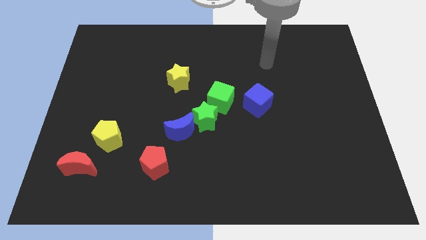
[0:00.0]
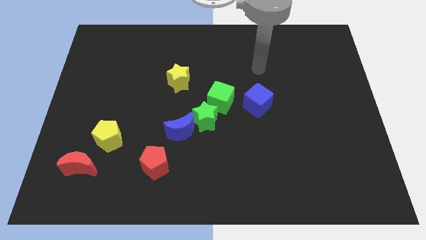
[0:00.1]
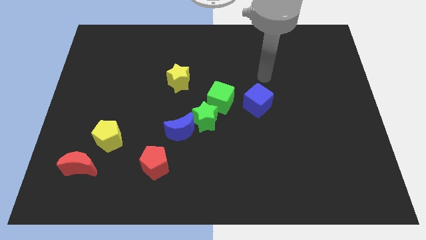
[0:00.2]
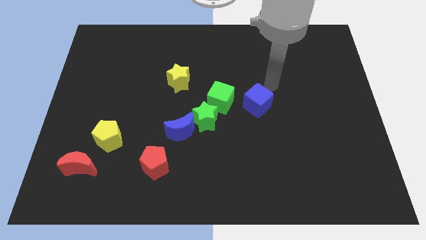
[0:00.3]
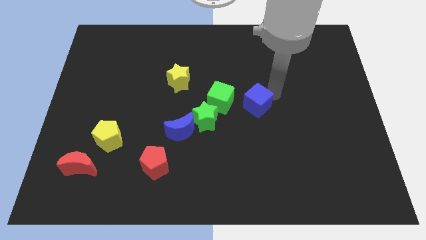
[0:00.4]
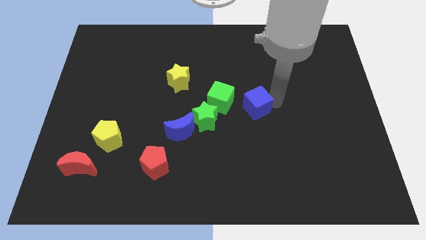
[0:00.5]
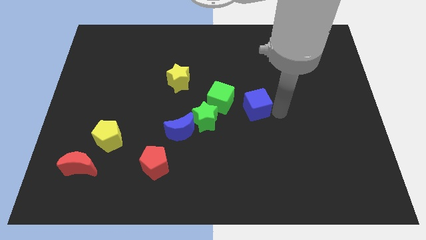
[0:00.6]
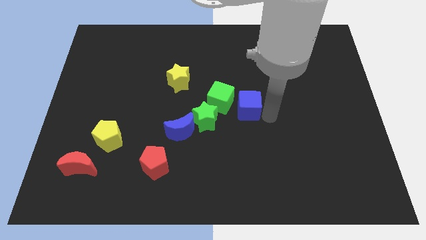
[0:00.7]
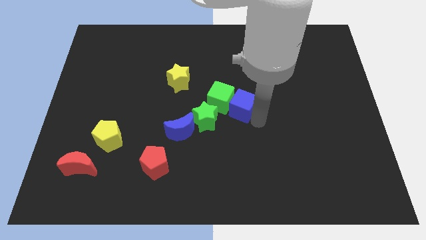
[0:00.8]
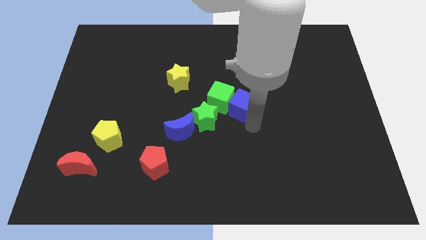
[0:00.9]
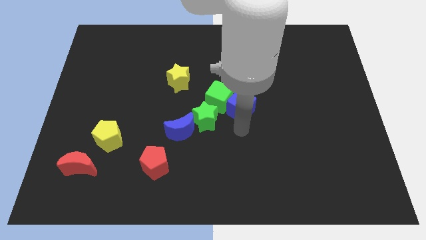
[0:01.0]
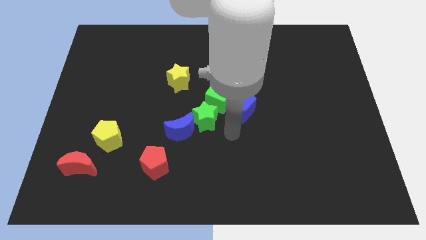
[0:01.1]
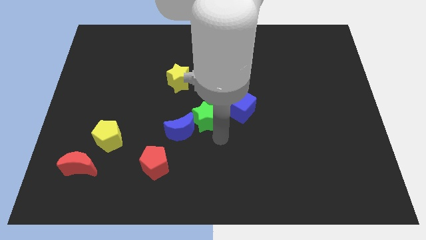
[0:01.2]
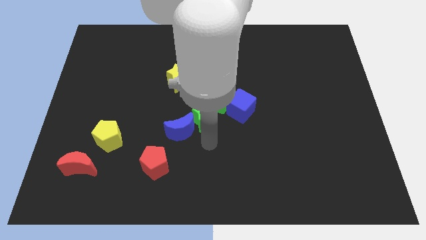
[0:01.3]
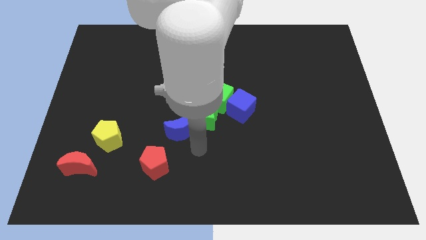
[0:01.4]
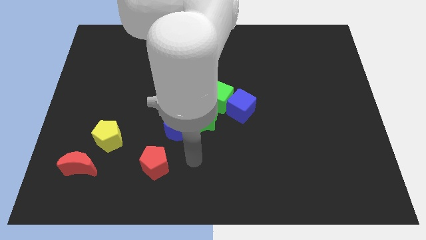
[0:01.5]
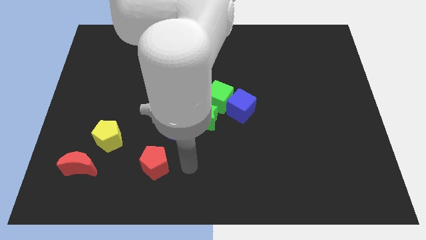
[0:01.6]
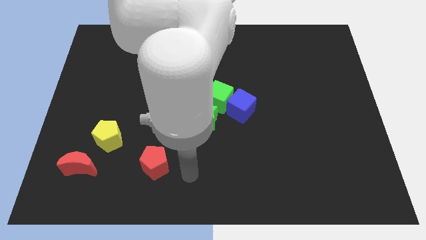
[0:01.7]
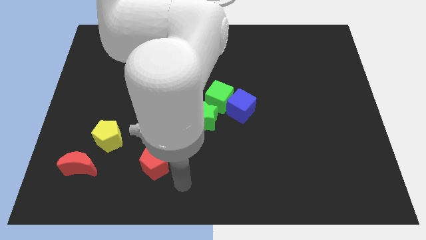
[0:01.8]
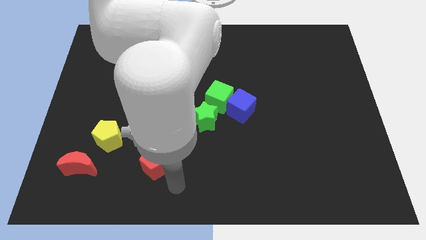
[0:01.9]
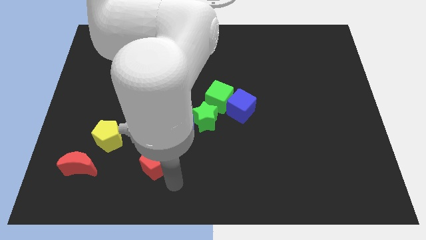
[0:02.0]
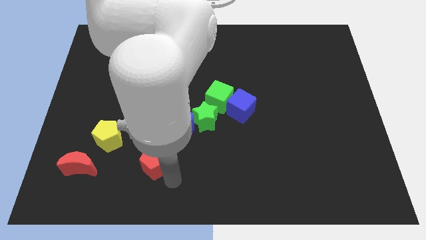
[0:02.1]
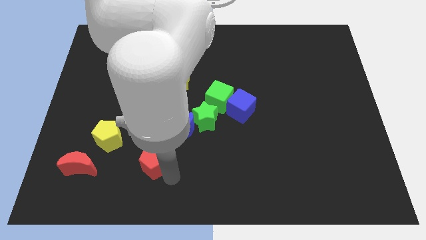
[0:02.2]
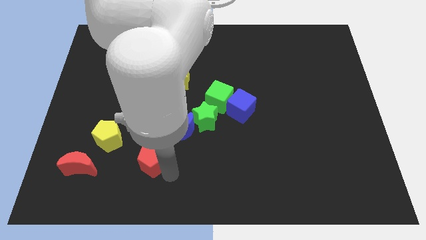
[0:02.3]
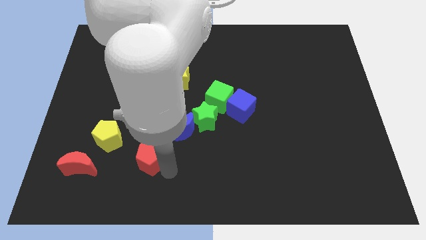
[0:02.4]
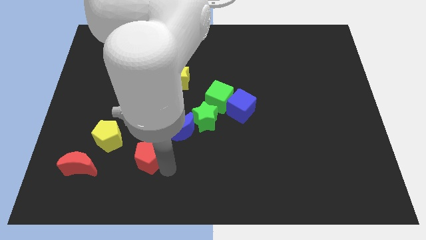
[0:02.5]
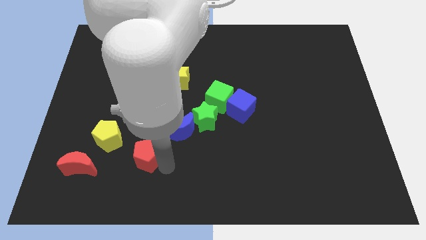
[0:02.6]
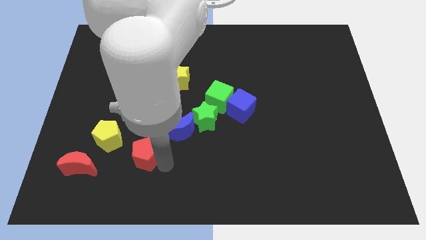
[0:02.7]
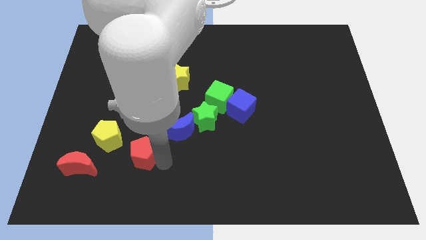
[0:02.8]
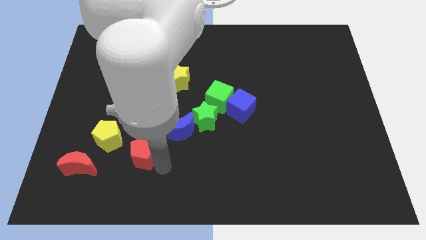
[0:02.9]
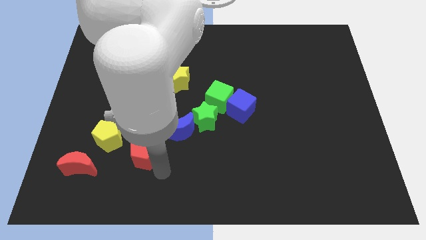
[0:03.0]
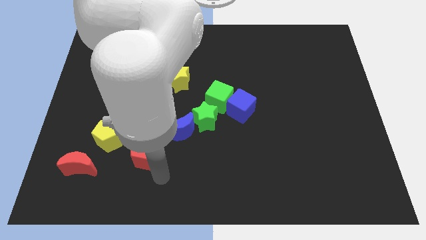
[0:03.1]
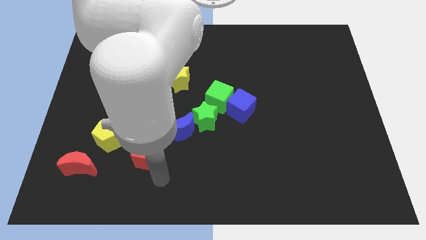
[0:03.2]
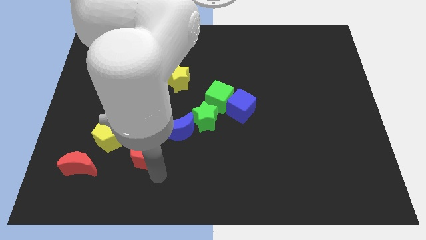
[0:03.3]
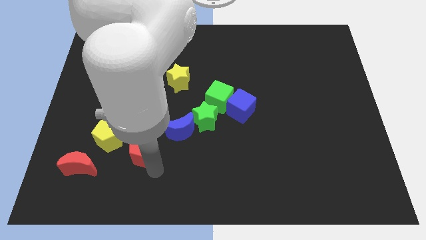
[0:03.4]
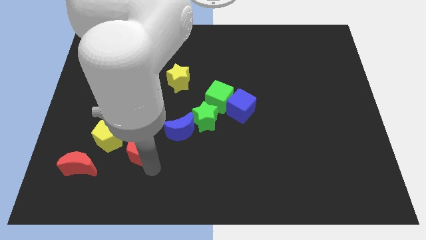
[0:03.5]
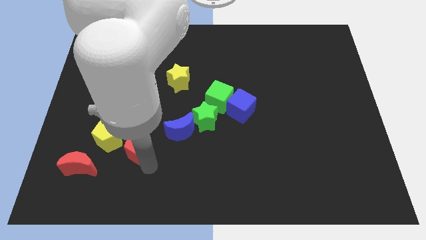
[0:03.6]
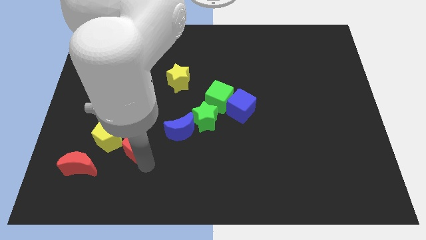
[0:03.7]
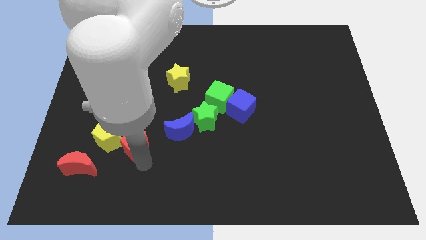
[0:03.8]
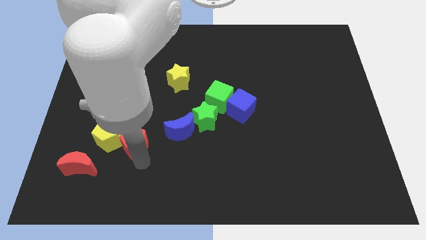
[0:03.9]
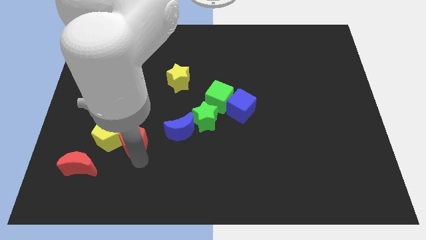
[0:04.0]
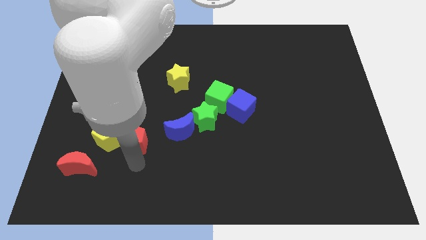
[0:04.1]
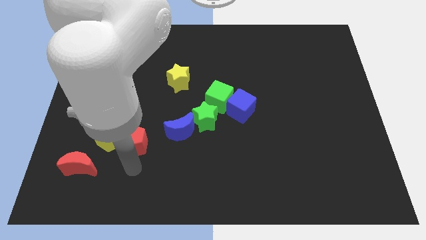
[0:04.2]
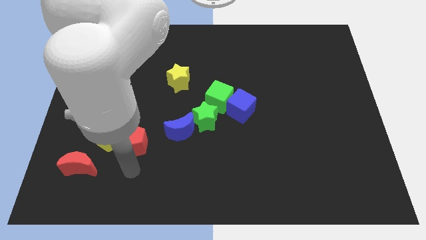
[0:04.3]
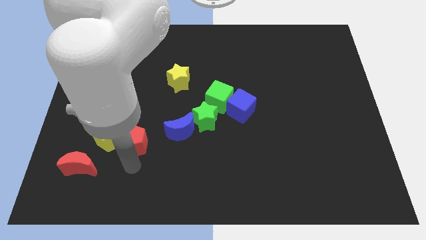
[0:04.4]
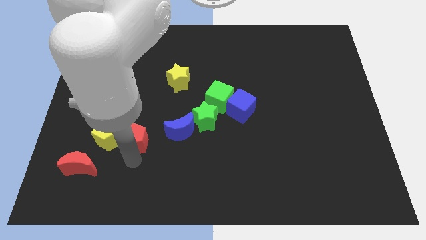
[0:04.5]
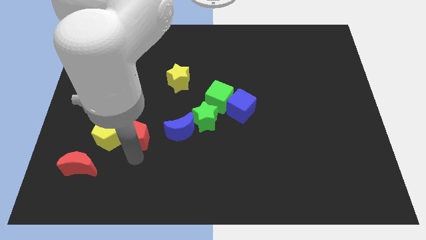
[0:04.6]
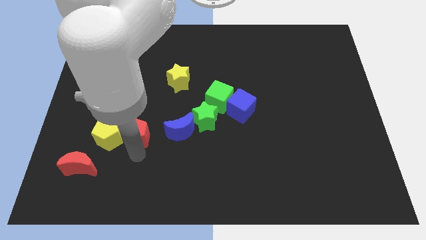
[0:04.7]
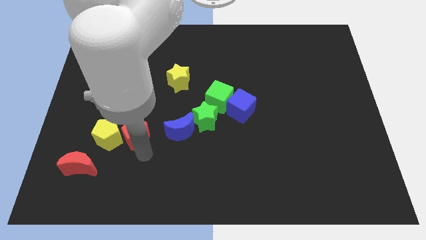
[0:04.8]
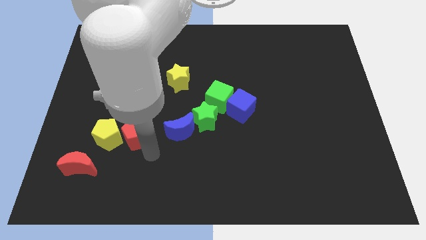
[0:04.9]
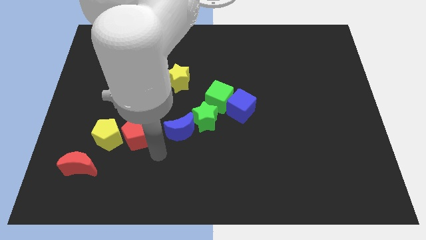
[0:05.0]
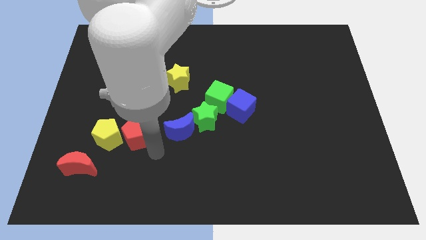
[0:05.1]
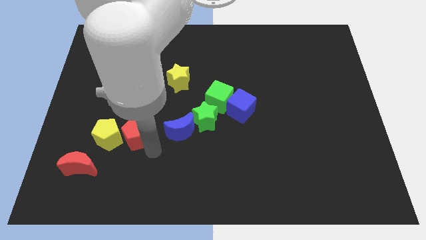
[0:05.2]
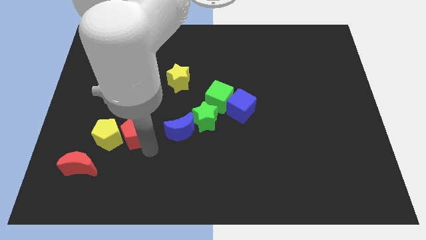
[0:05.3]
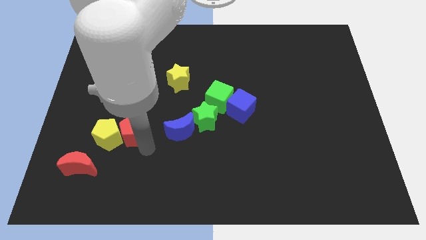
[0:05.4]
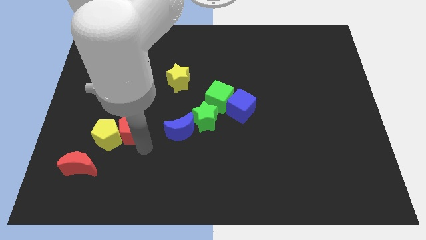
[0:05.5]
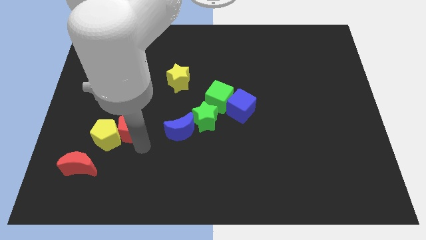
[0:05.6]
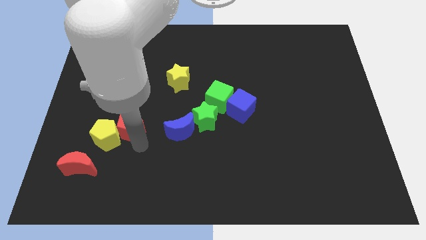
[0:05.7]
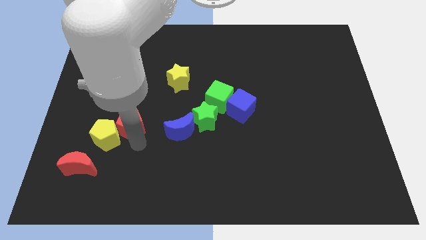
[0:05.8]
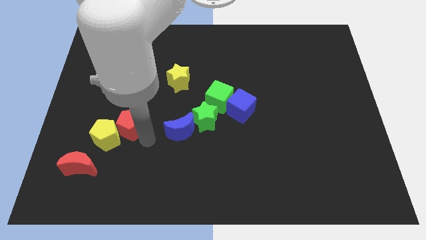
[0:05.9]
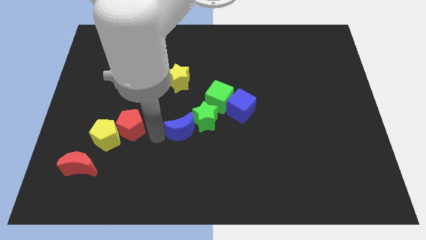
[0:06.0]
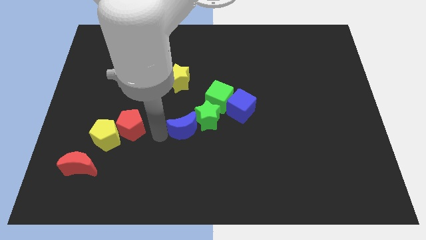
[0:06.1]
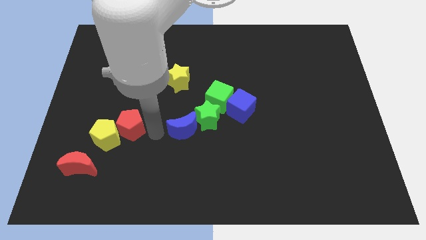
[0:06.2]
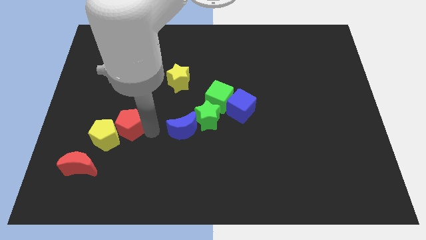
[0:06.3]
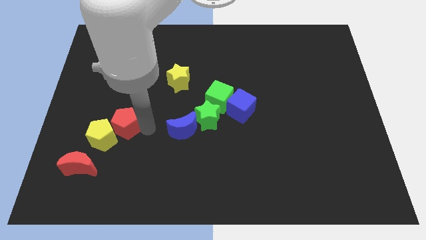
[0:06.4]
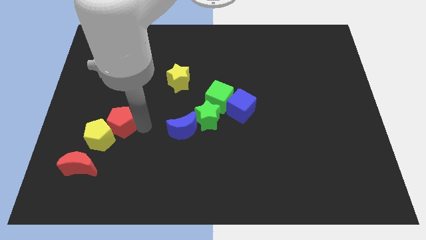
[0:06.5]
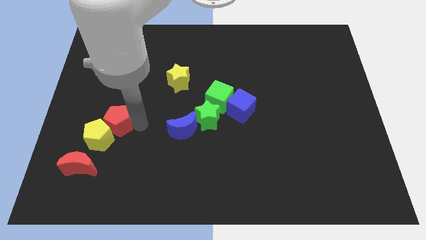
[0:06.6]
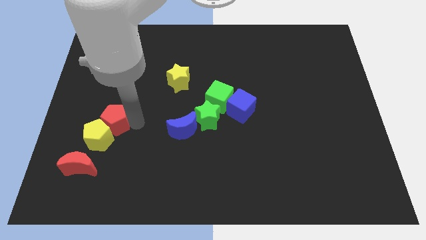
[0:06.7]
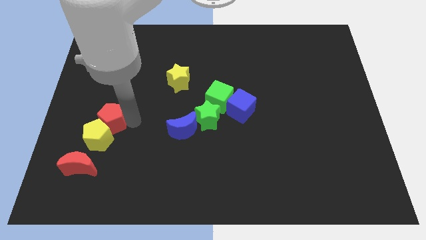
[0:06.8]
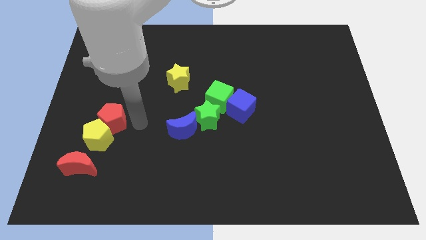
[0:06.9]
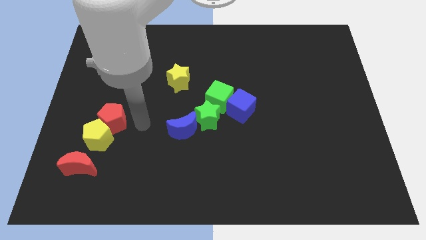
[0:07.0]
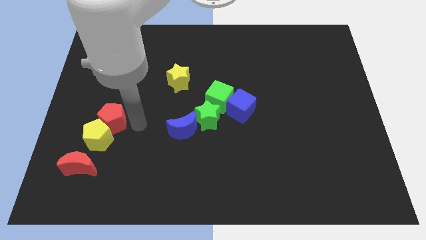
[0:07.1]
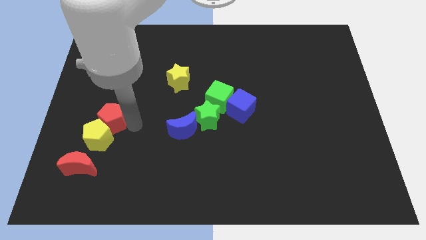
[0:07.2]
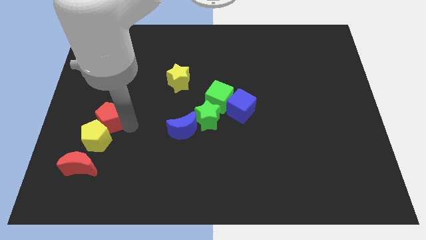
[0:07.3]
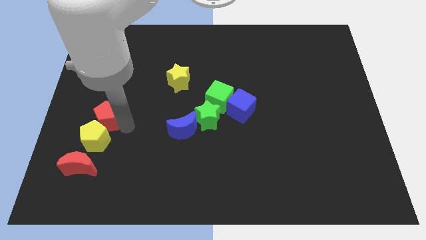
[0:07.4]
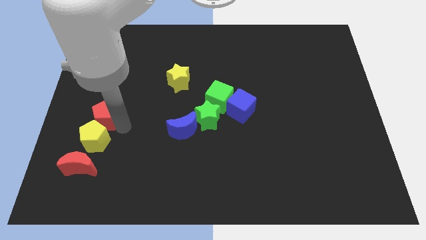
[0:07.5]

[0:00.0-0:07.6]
put the red pentagon to the top left of the yellow pentagon
